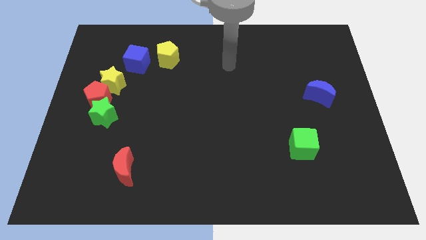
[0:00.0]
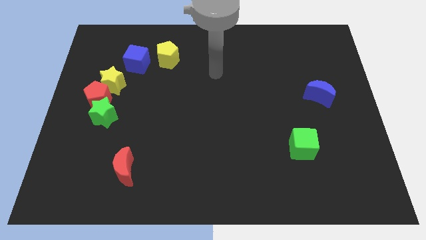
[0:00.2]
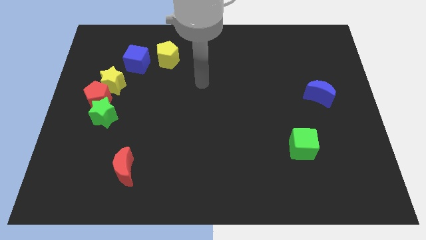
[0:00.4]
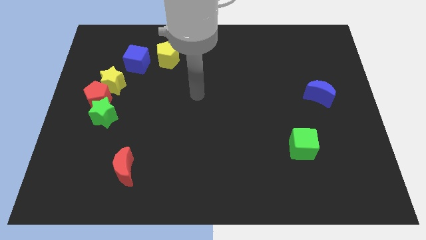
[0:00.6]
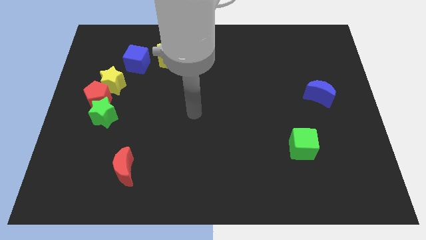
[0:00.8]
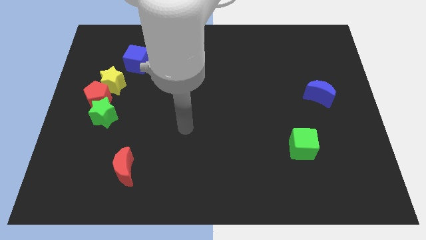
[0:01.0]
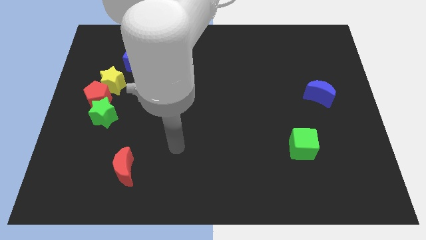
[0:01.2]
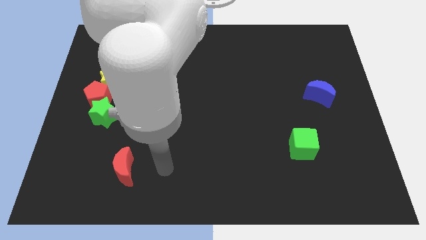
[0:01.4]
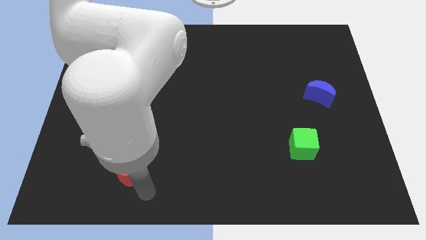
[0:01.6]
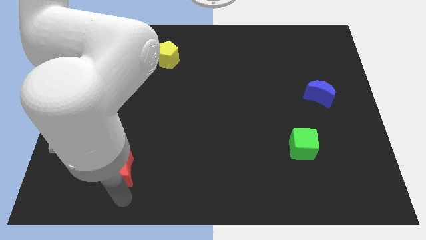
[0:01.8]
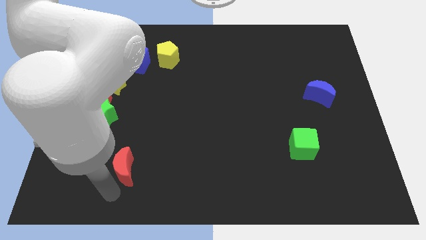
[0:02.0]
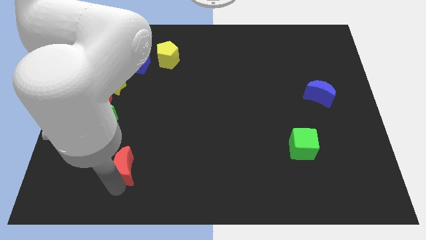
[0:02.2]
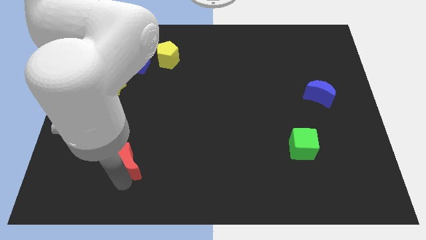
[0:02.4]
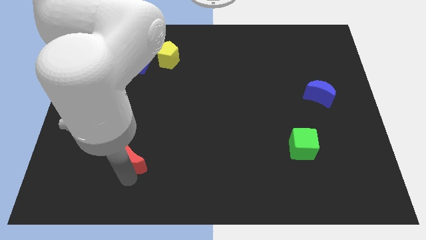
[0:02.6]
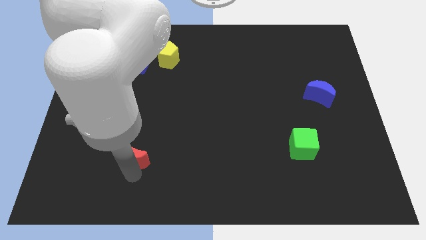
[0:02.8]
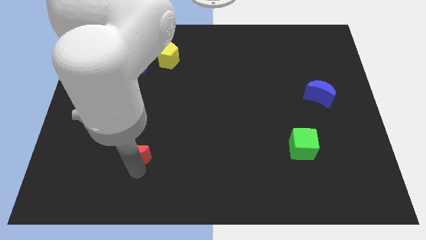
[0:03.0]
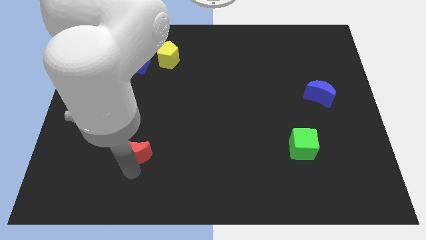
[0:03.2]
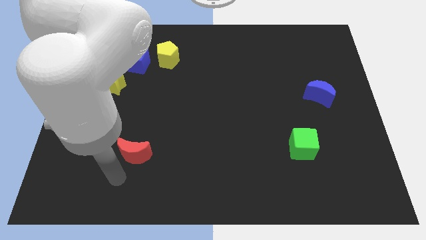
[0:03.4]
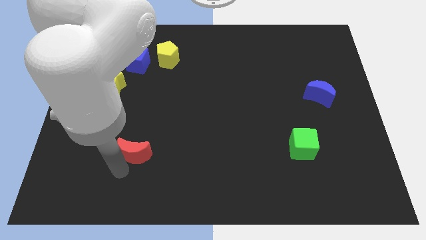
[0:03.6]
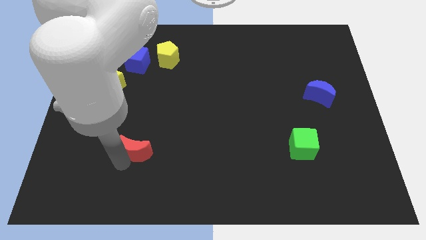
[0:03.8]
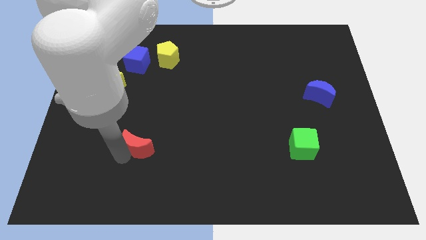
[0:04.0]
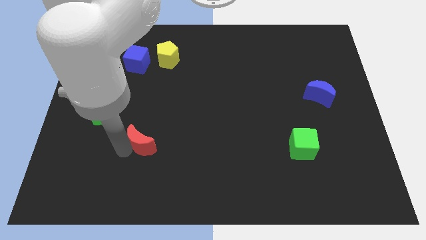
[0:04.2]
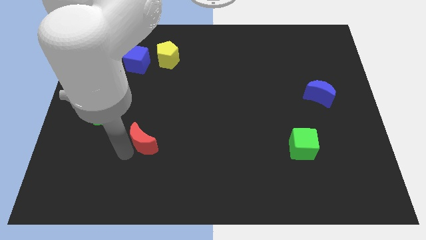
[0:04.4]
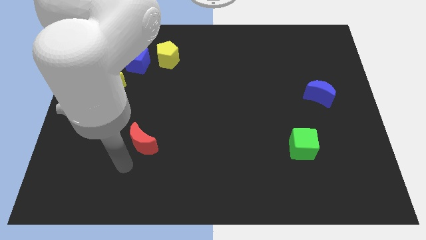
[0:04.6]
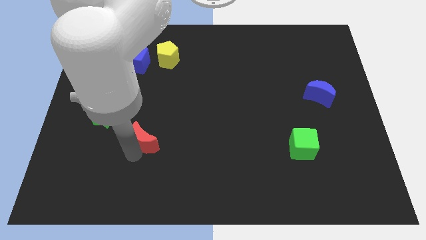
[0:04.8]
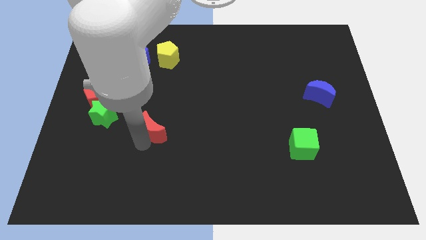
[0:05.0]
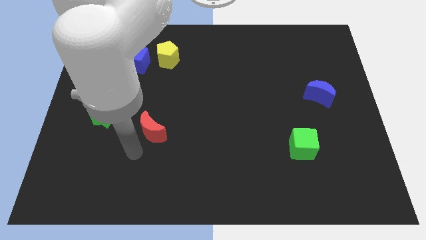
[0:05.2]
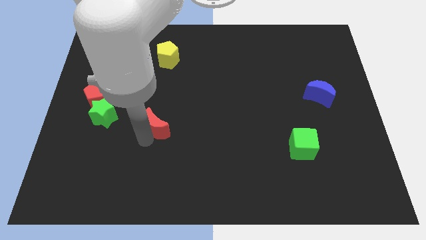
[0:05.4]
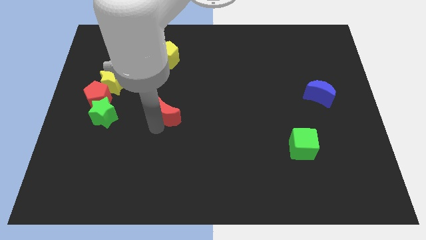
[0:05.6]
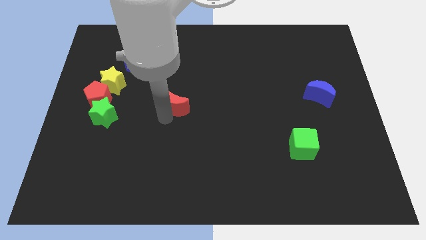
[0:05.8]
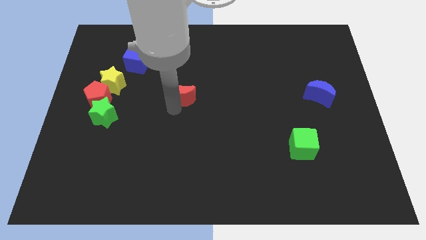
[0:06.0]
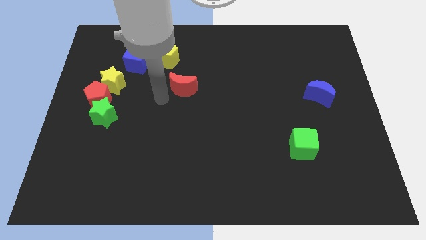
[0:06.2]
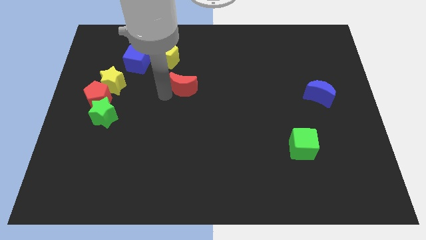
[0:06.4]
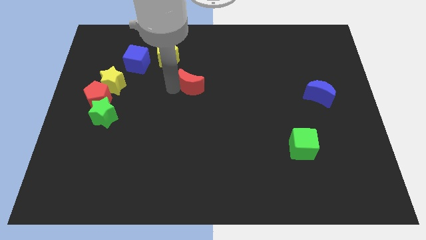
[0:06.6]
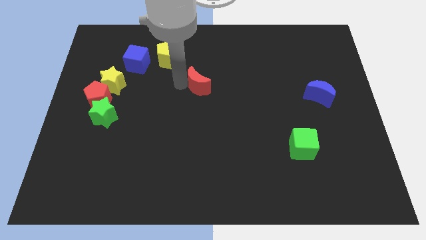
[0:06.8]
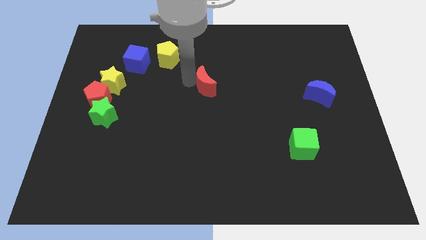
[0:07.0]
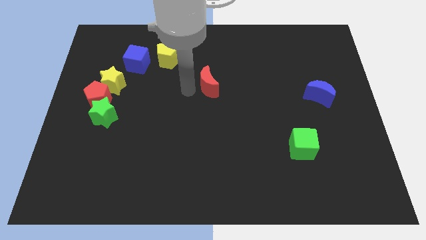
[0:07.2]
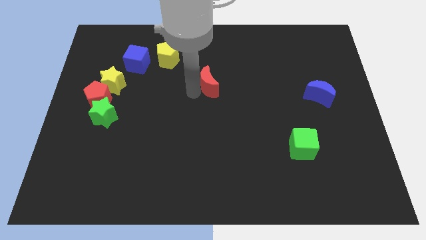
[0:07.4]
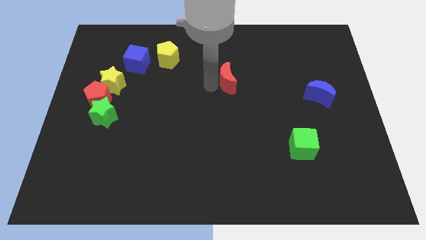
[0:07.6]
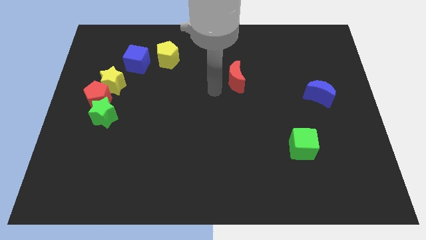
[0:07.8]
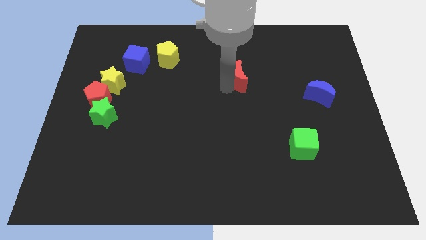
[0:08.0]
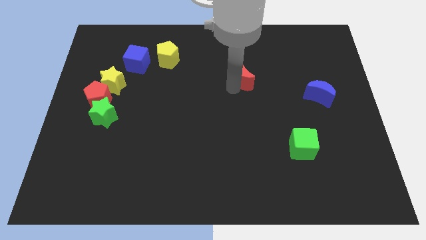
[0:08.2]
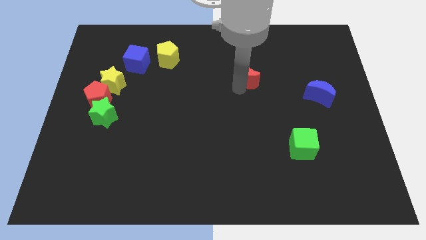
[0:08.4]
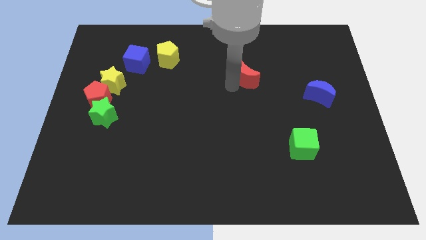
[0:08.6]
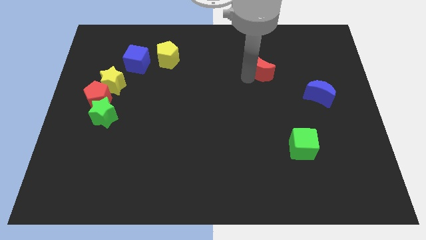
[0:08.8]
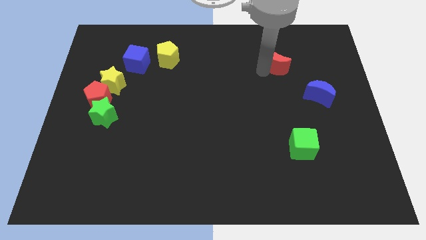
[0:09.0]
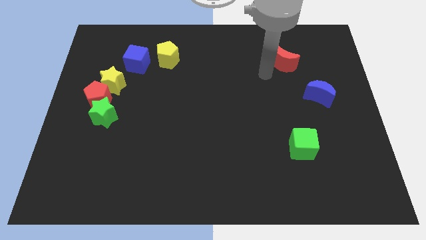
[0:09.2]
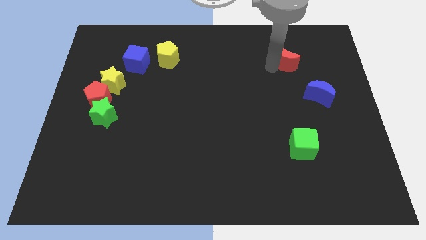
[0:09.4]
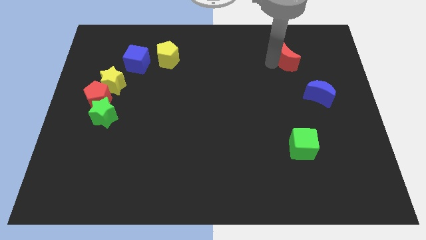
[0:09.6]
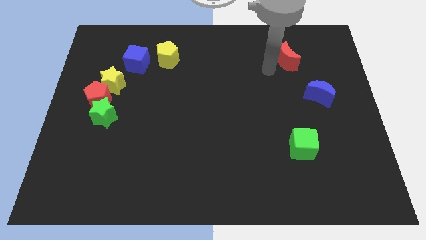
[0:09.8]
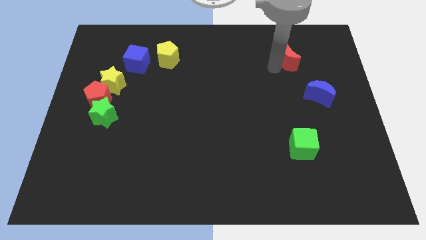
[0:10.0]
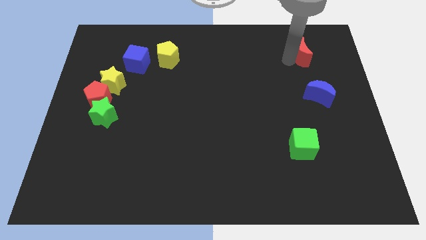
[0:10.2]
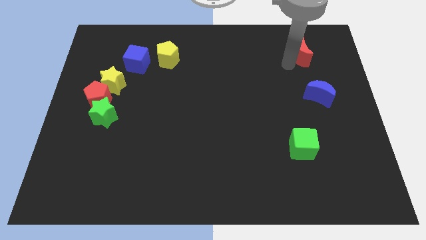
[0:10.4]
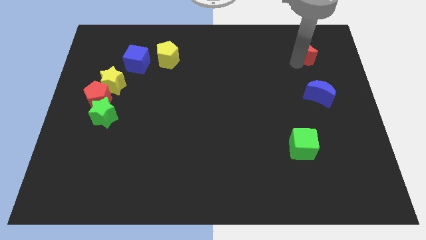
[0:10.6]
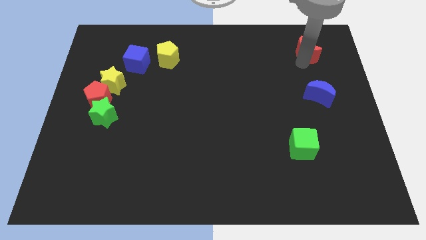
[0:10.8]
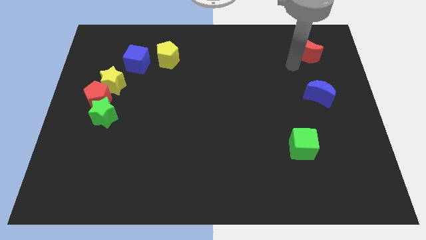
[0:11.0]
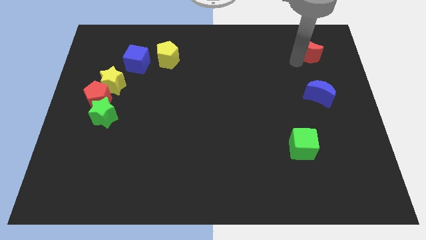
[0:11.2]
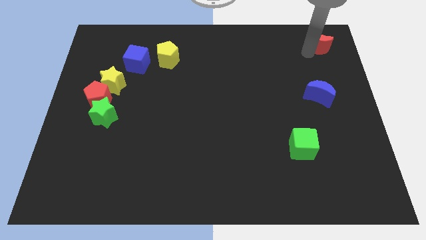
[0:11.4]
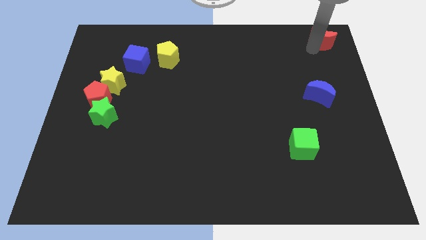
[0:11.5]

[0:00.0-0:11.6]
slide the red moon to the top right
